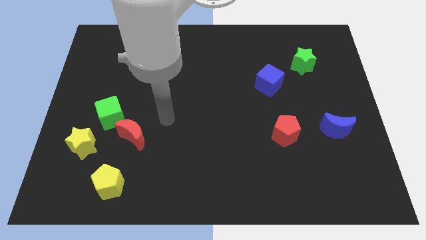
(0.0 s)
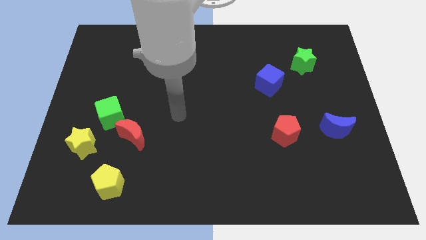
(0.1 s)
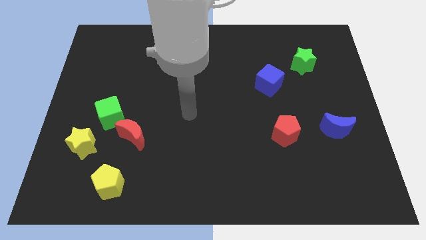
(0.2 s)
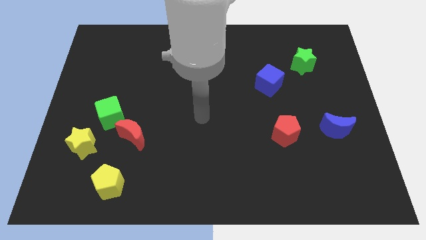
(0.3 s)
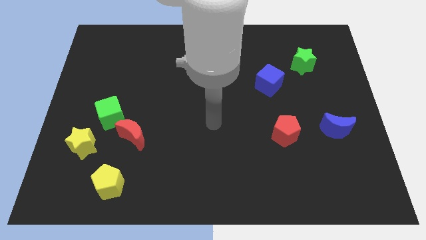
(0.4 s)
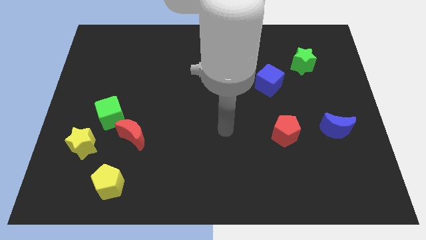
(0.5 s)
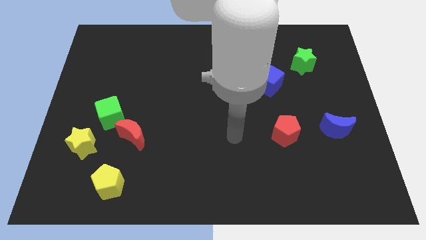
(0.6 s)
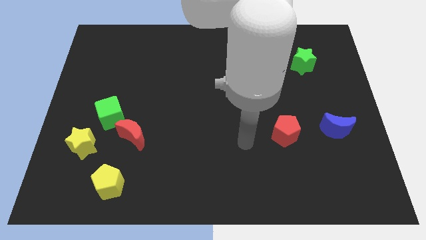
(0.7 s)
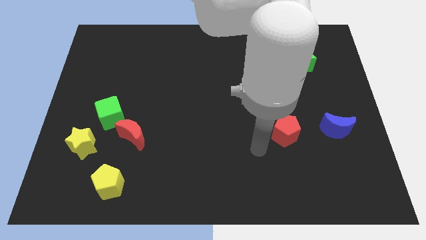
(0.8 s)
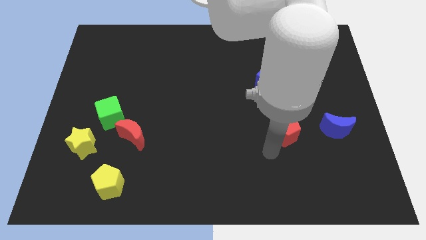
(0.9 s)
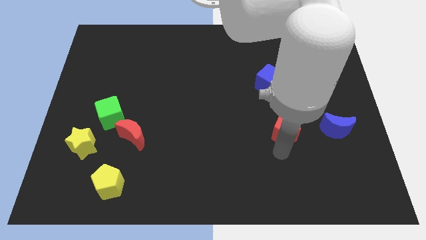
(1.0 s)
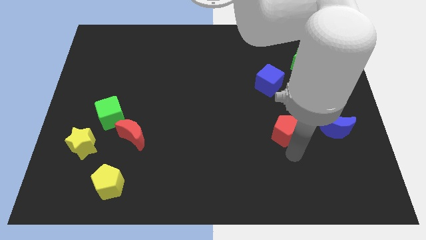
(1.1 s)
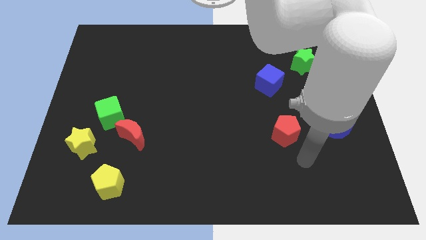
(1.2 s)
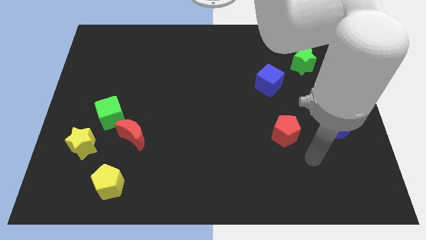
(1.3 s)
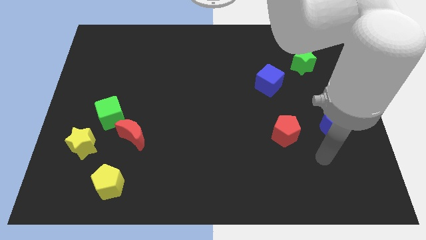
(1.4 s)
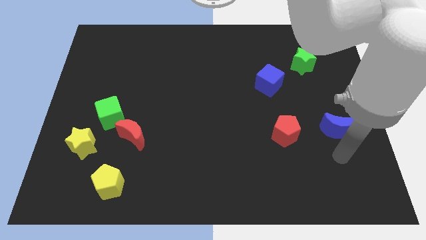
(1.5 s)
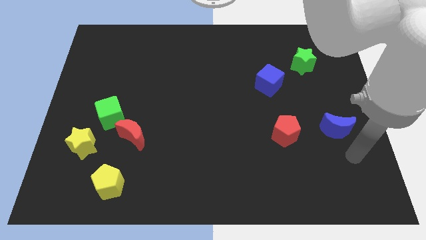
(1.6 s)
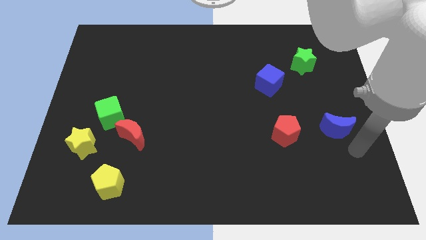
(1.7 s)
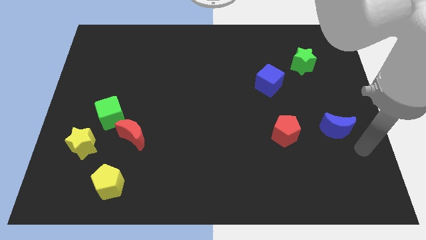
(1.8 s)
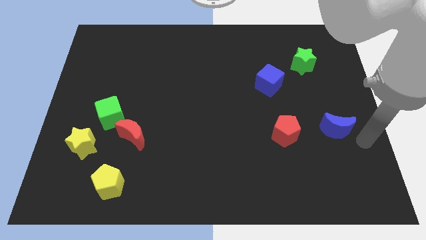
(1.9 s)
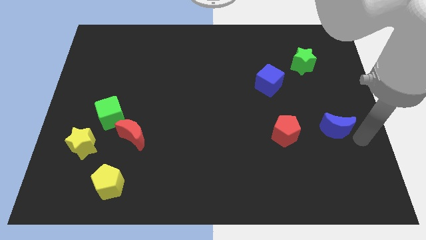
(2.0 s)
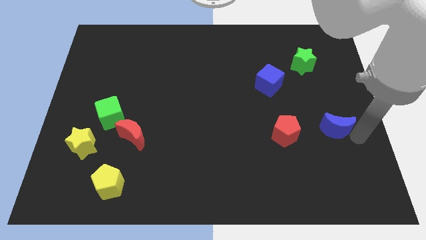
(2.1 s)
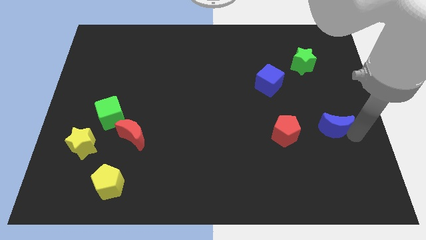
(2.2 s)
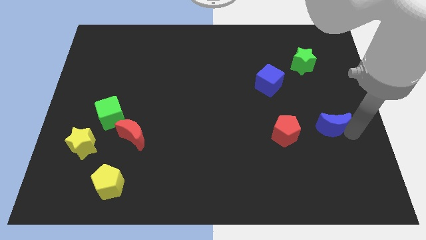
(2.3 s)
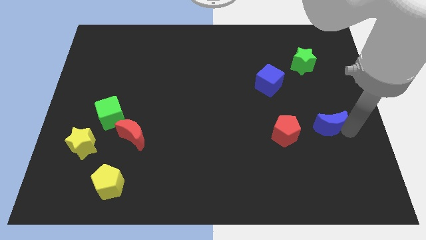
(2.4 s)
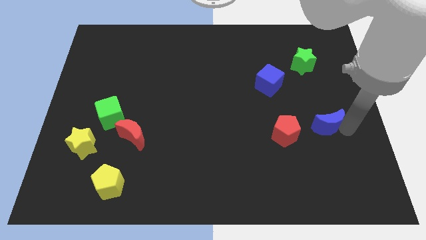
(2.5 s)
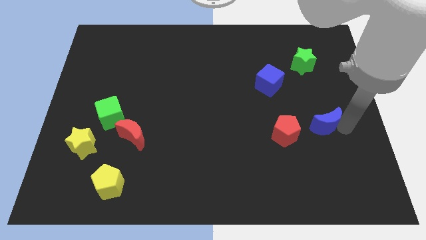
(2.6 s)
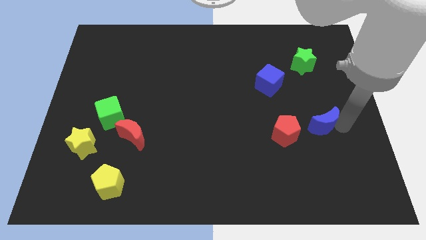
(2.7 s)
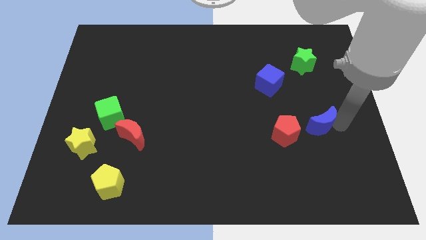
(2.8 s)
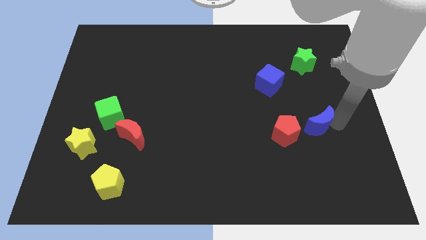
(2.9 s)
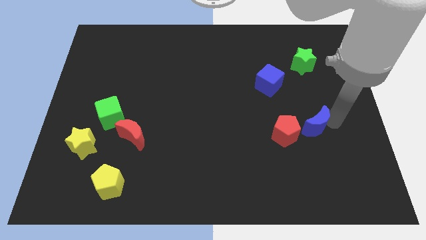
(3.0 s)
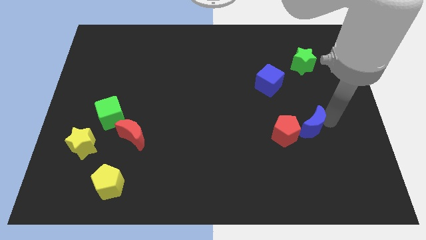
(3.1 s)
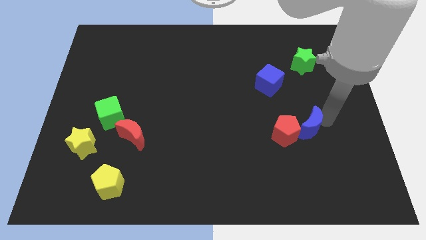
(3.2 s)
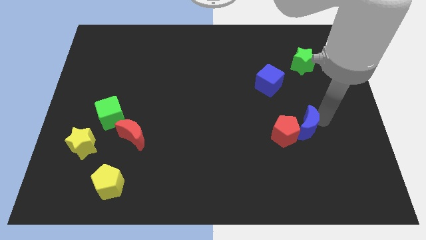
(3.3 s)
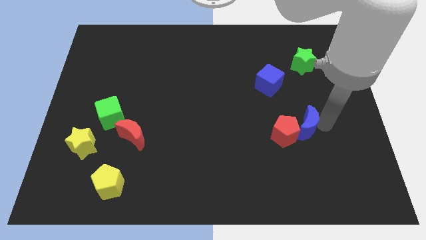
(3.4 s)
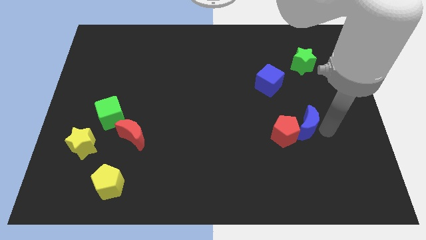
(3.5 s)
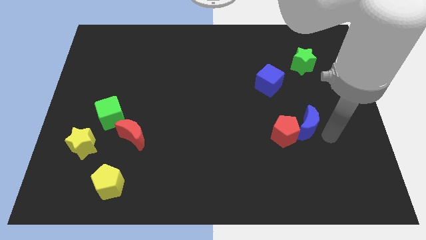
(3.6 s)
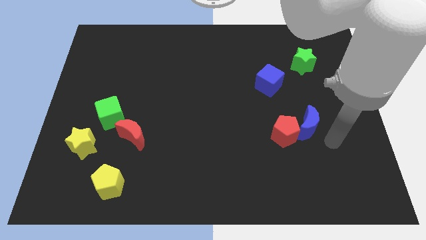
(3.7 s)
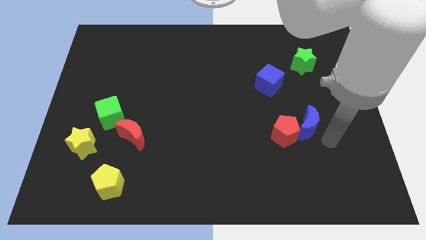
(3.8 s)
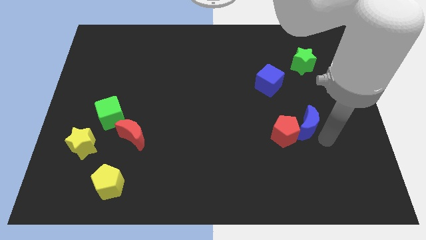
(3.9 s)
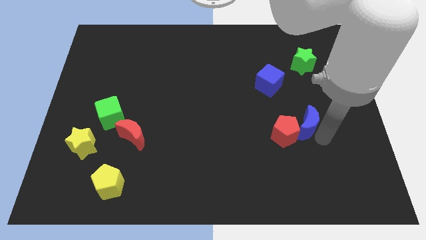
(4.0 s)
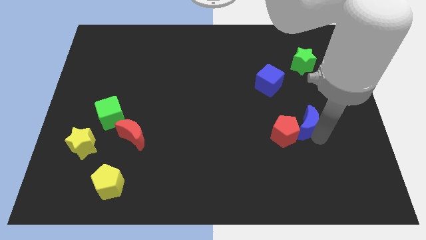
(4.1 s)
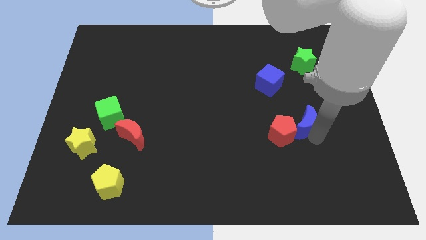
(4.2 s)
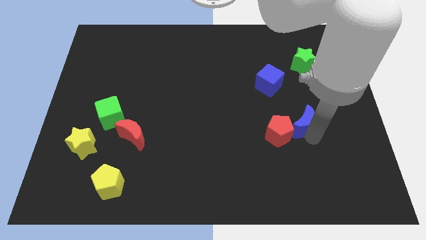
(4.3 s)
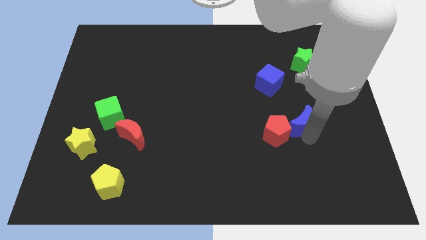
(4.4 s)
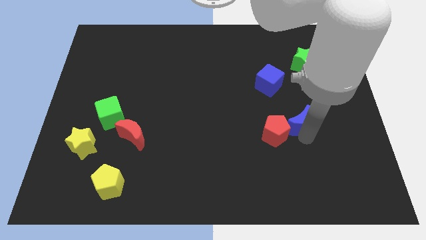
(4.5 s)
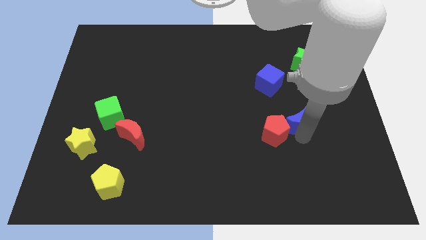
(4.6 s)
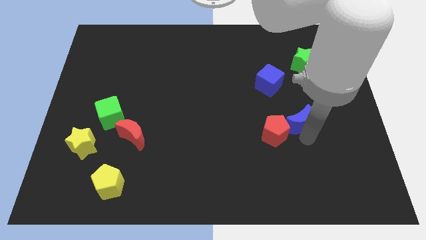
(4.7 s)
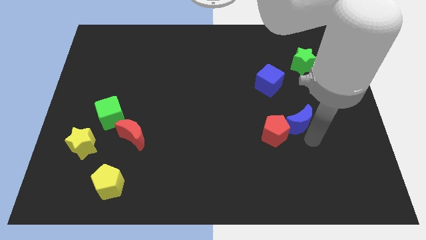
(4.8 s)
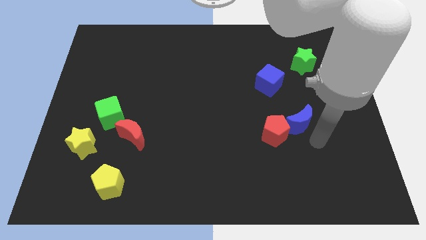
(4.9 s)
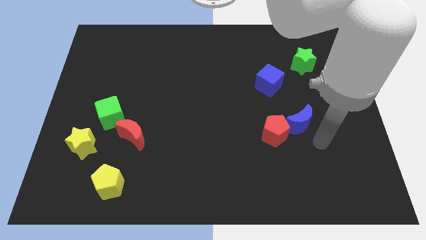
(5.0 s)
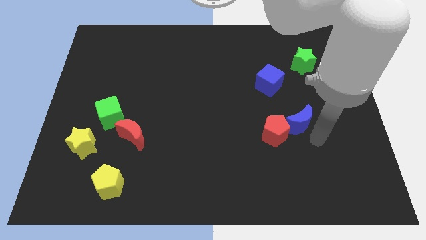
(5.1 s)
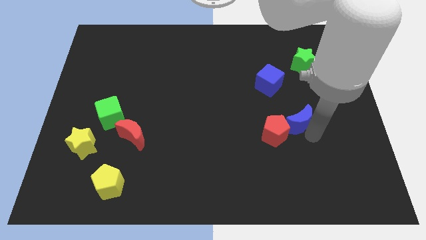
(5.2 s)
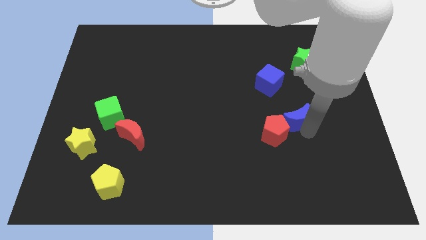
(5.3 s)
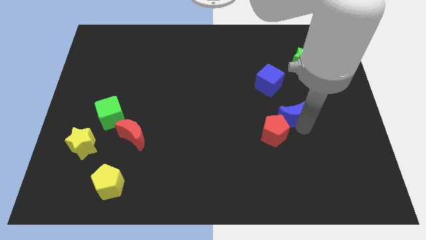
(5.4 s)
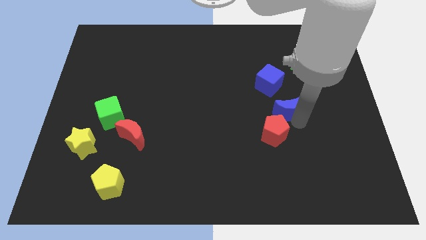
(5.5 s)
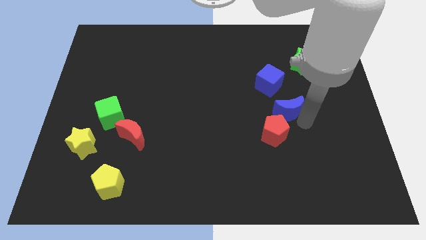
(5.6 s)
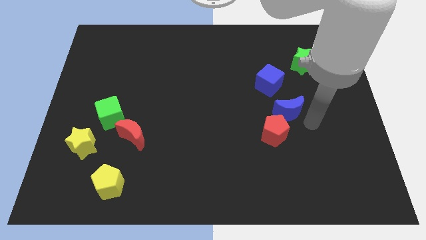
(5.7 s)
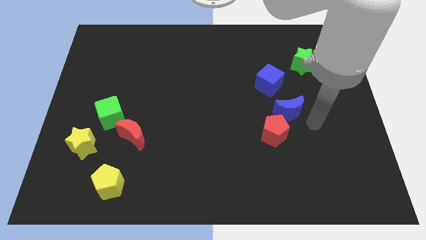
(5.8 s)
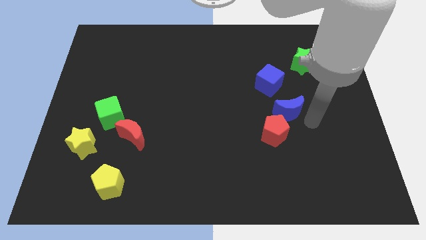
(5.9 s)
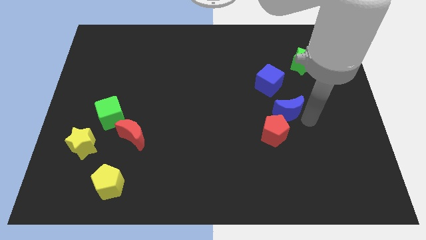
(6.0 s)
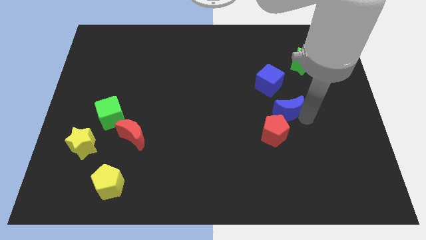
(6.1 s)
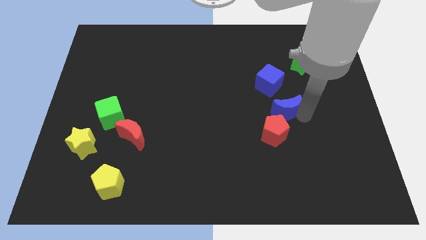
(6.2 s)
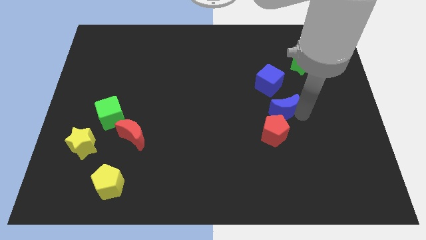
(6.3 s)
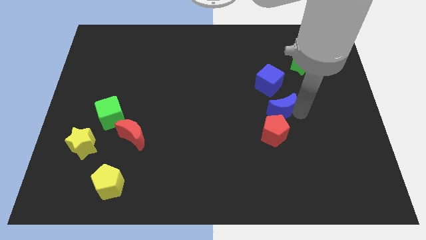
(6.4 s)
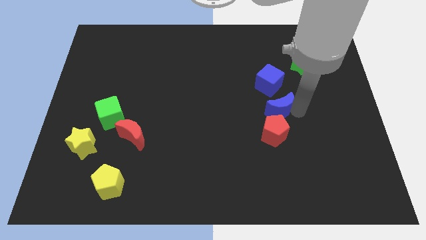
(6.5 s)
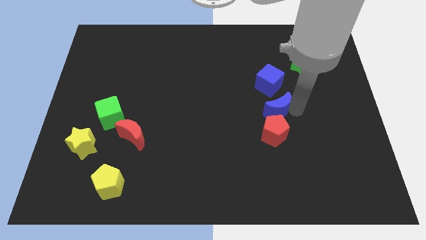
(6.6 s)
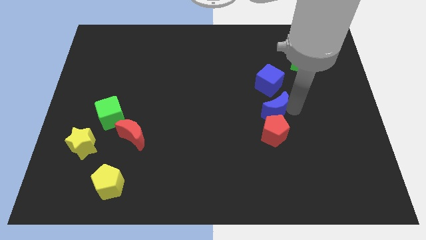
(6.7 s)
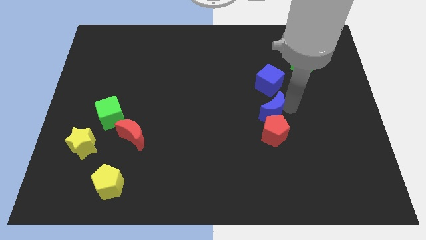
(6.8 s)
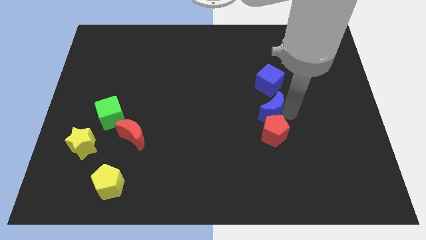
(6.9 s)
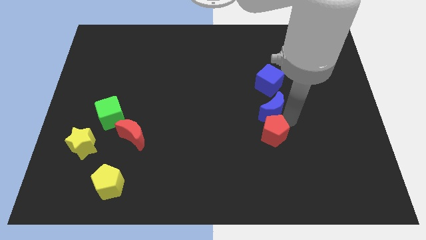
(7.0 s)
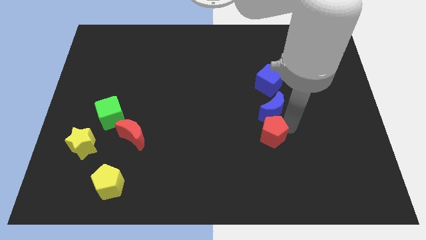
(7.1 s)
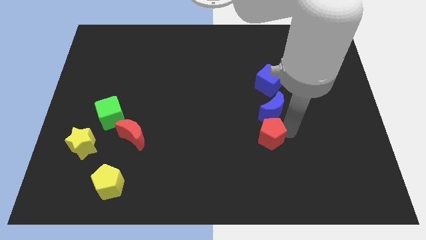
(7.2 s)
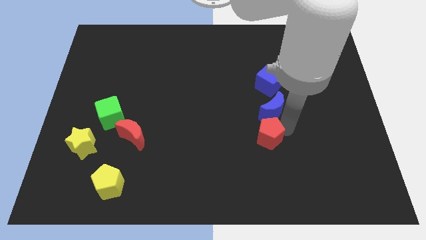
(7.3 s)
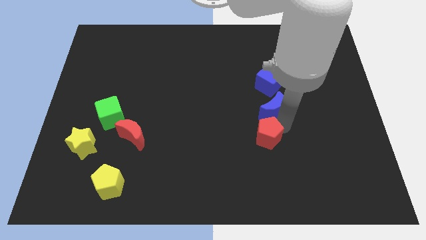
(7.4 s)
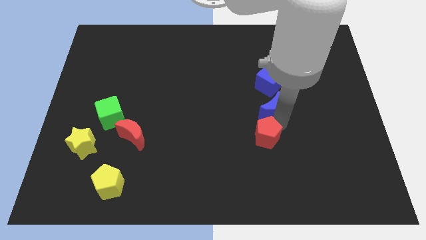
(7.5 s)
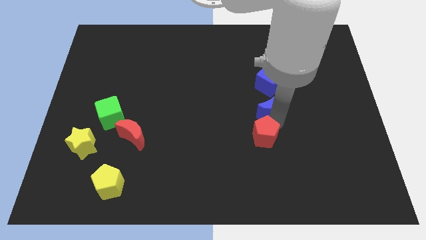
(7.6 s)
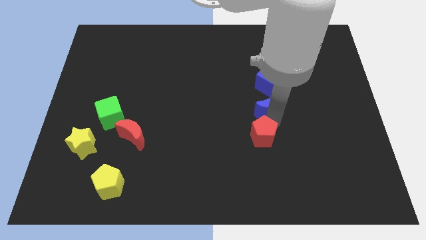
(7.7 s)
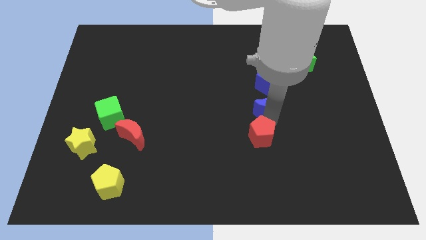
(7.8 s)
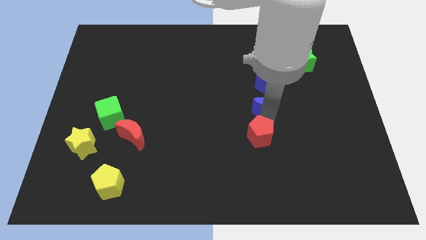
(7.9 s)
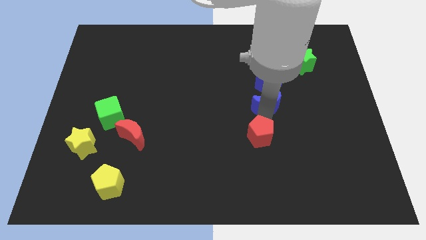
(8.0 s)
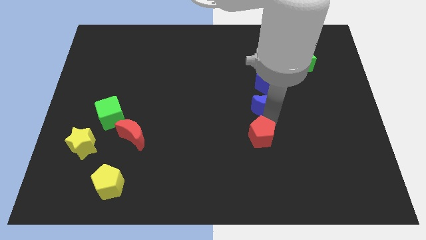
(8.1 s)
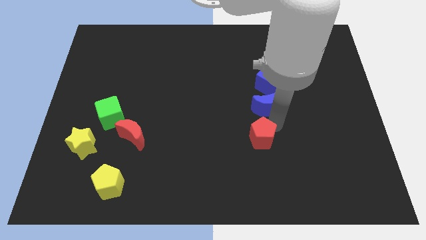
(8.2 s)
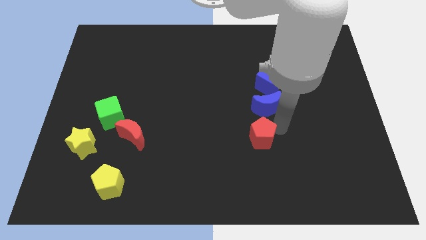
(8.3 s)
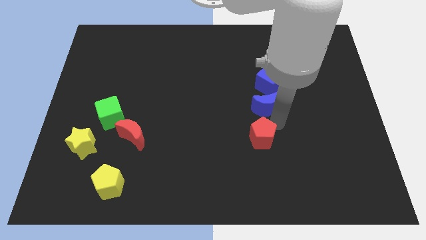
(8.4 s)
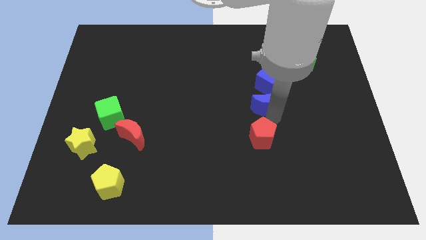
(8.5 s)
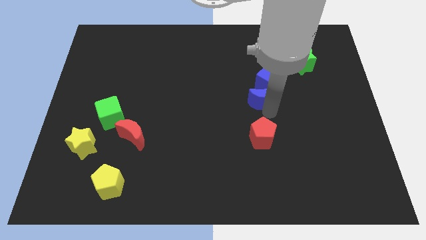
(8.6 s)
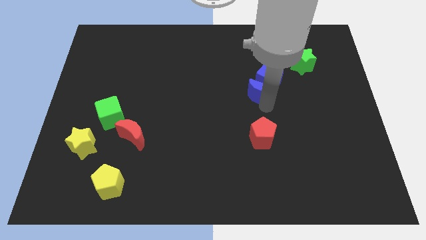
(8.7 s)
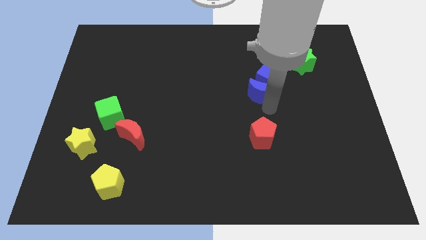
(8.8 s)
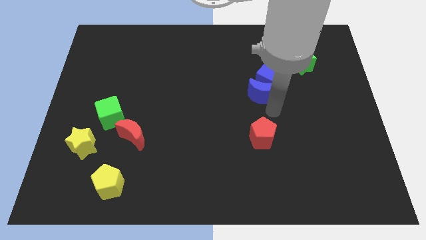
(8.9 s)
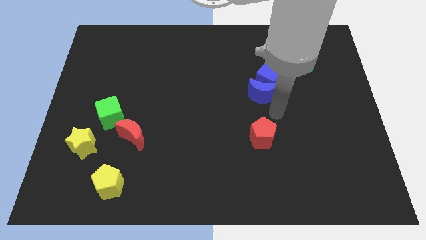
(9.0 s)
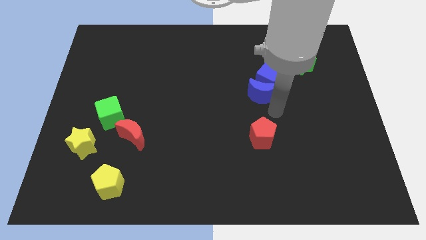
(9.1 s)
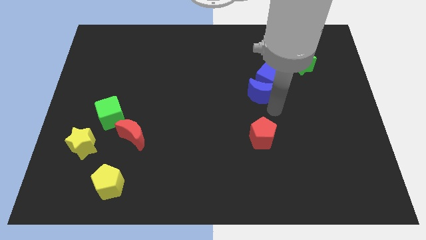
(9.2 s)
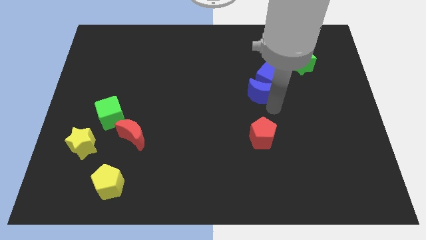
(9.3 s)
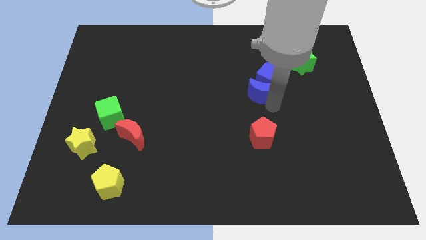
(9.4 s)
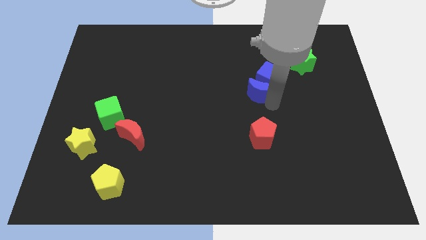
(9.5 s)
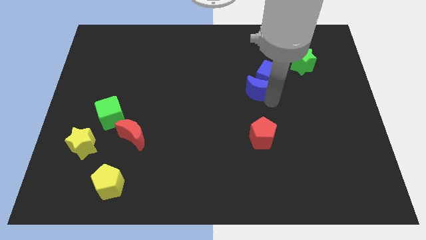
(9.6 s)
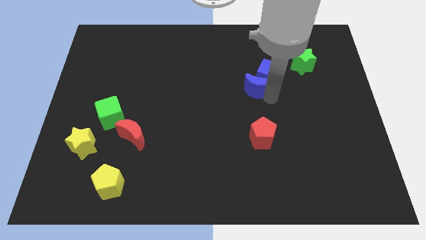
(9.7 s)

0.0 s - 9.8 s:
slide the blue moon up and left
